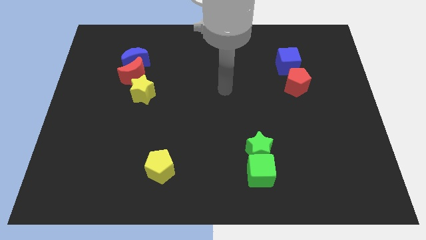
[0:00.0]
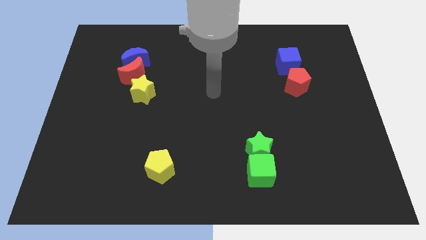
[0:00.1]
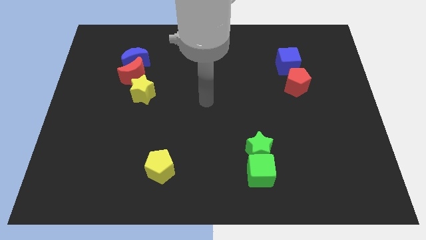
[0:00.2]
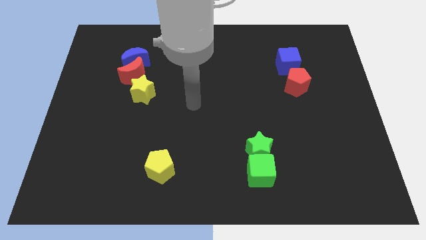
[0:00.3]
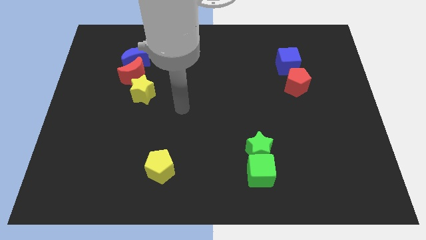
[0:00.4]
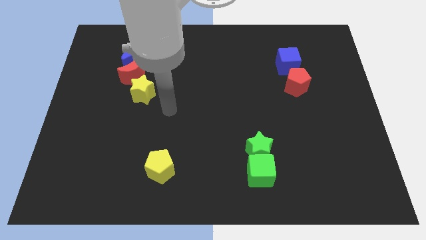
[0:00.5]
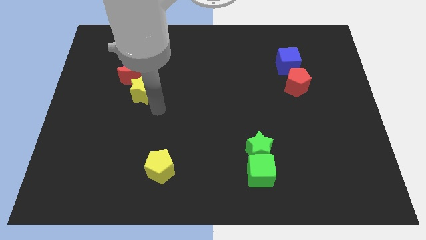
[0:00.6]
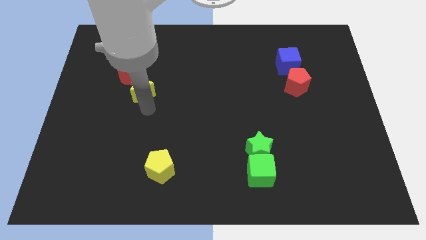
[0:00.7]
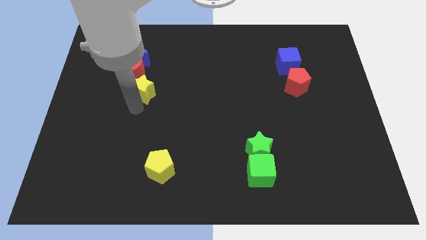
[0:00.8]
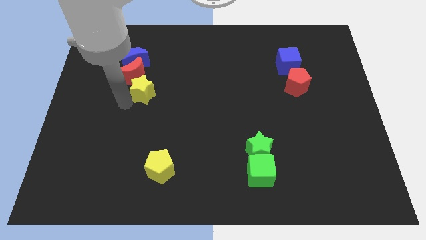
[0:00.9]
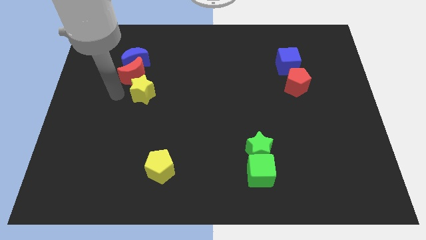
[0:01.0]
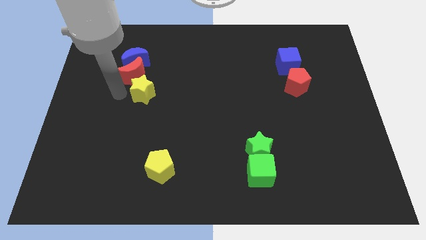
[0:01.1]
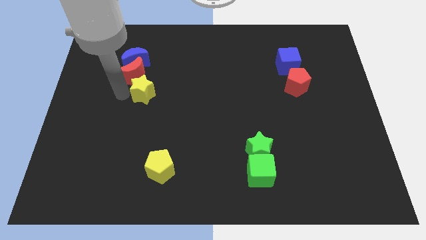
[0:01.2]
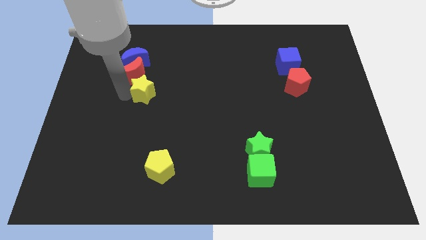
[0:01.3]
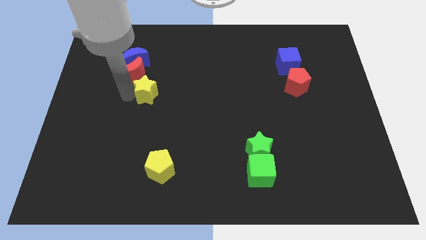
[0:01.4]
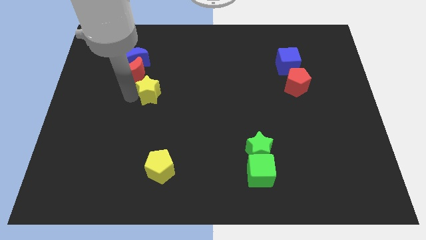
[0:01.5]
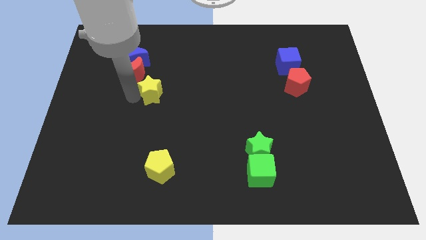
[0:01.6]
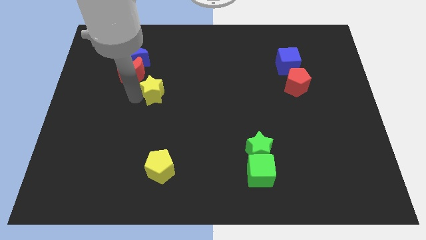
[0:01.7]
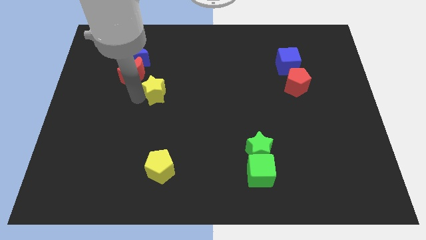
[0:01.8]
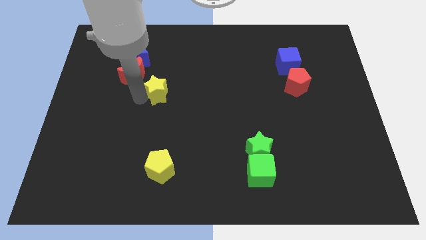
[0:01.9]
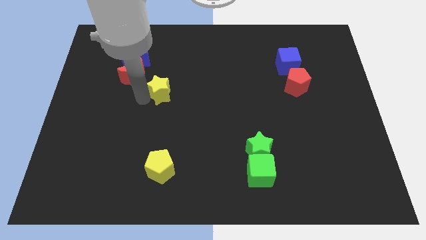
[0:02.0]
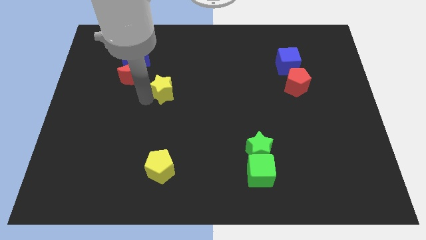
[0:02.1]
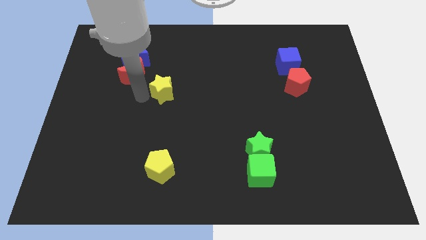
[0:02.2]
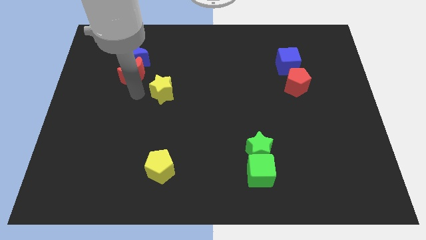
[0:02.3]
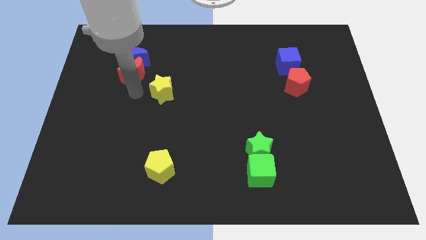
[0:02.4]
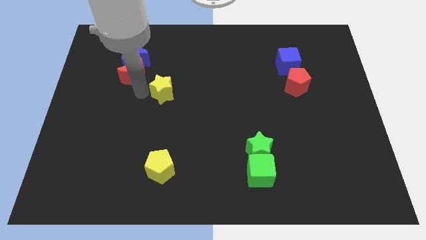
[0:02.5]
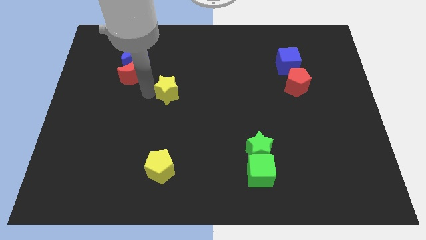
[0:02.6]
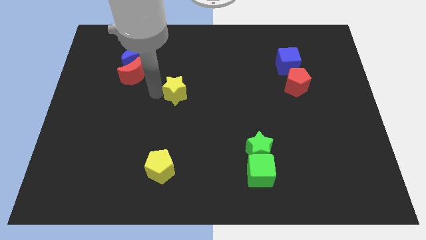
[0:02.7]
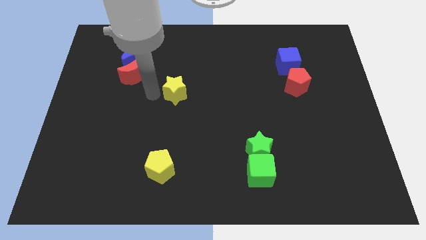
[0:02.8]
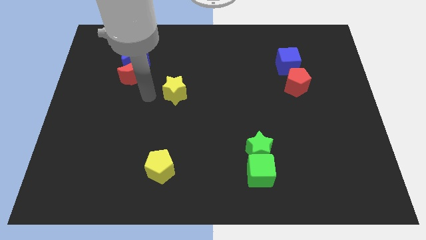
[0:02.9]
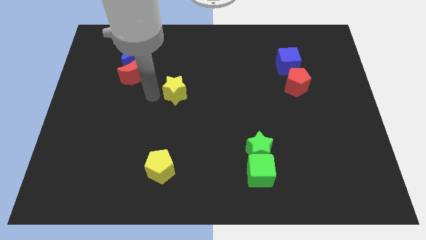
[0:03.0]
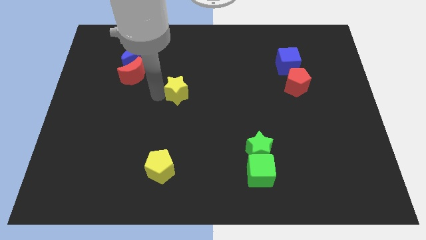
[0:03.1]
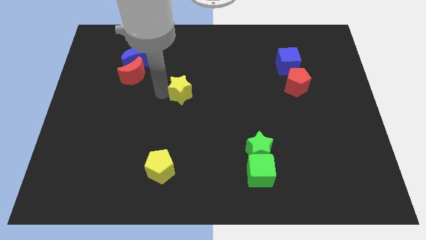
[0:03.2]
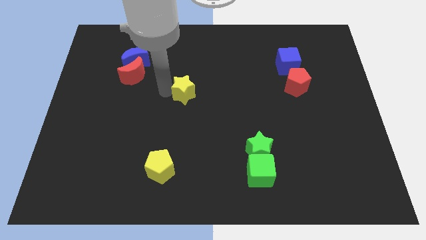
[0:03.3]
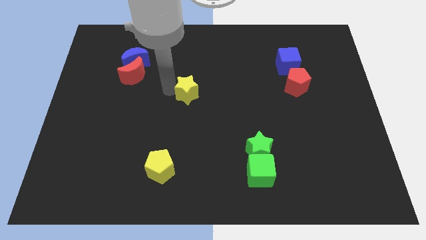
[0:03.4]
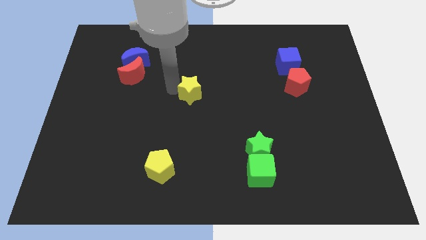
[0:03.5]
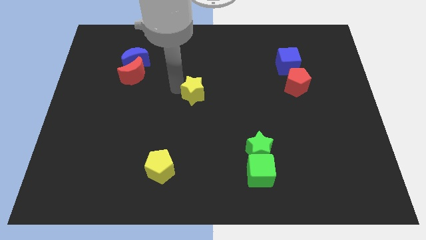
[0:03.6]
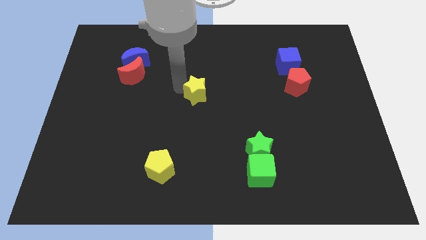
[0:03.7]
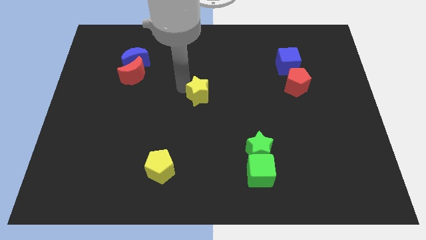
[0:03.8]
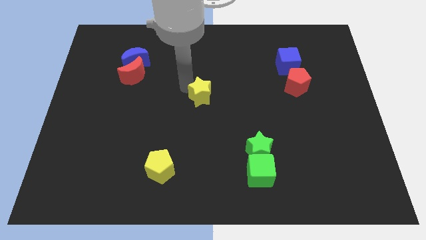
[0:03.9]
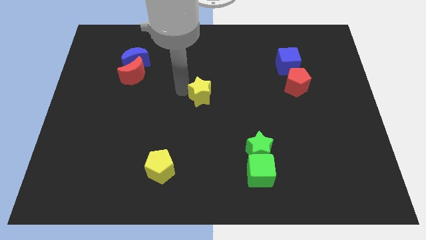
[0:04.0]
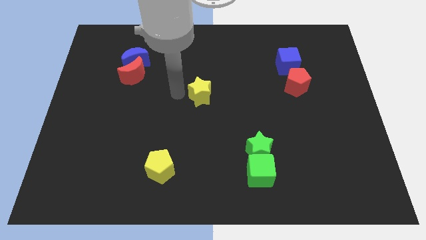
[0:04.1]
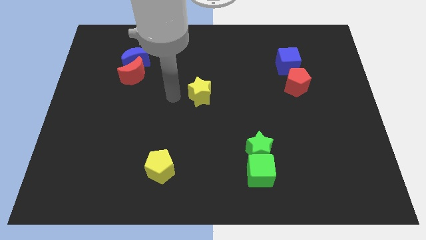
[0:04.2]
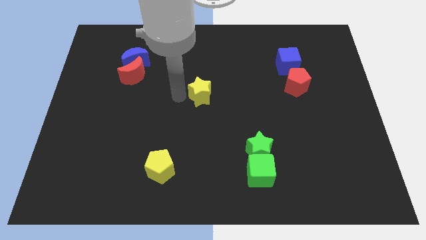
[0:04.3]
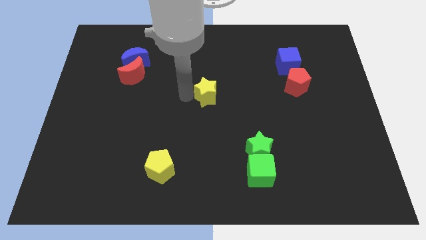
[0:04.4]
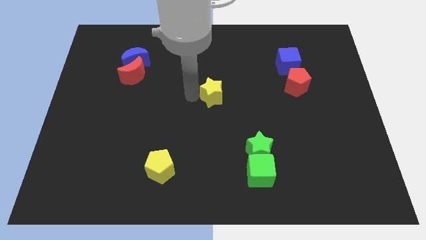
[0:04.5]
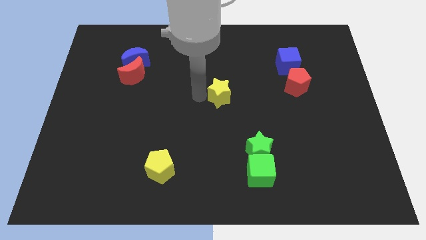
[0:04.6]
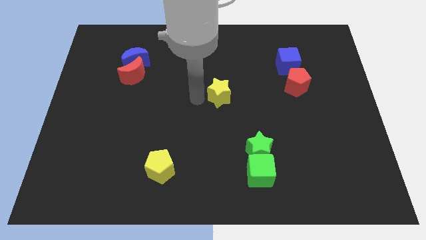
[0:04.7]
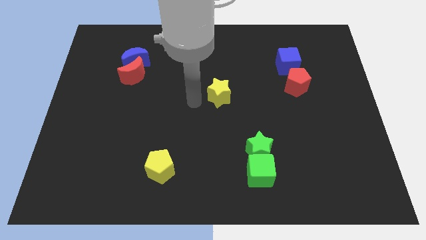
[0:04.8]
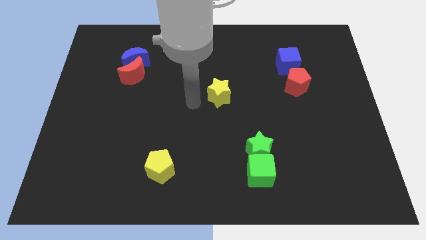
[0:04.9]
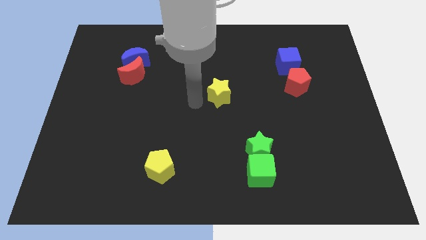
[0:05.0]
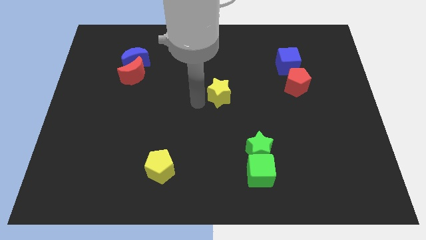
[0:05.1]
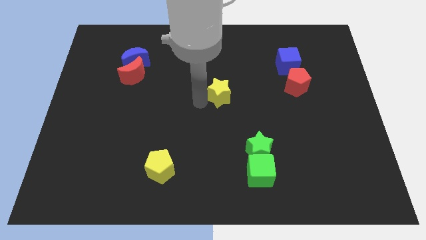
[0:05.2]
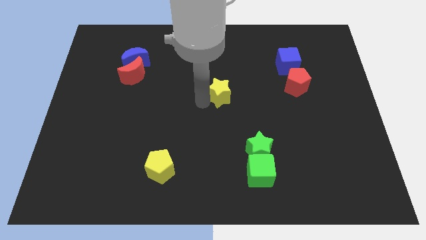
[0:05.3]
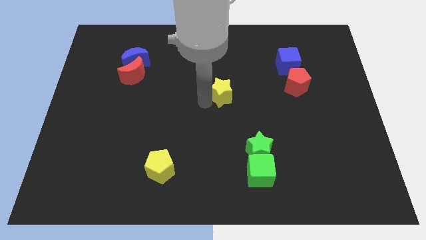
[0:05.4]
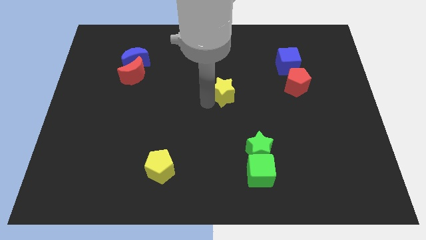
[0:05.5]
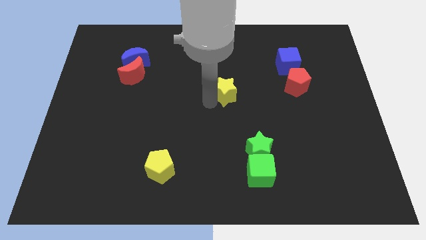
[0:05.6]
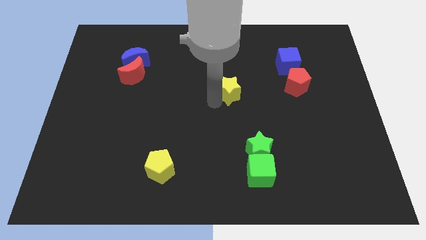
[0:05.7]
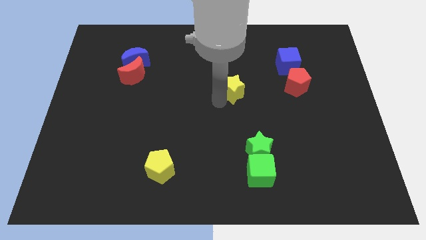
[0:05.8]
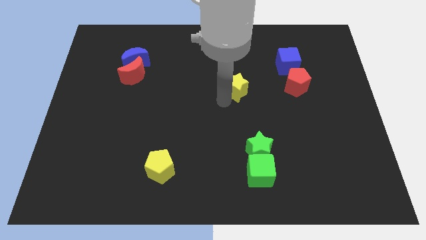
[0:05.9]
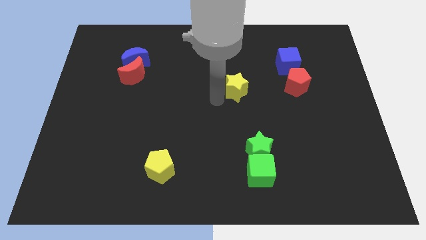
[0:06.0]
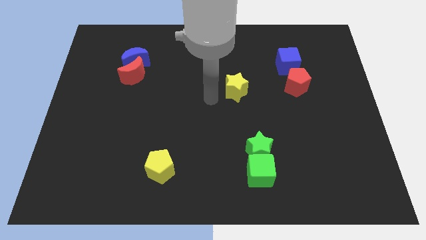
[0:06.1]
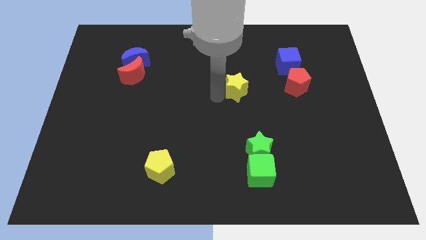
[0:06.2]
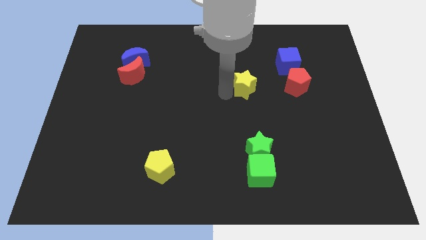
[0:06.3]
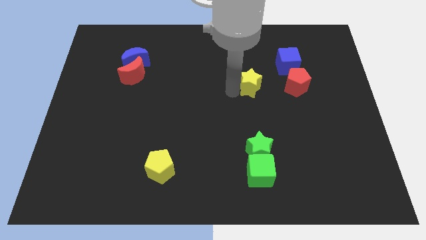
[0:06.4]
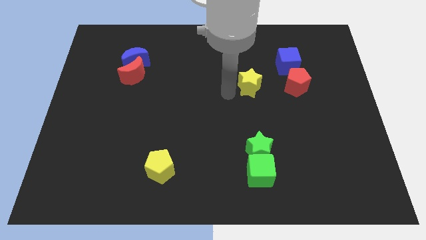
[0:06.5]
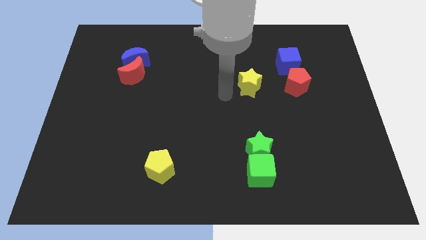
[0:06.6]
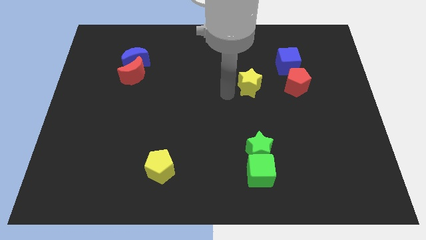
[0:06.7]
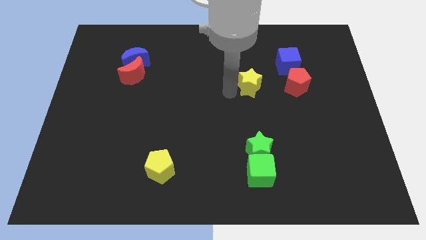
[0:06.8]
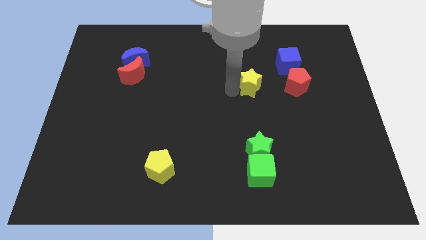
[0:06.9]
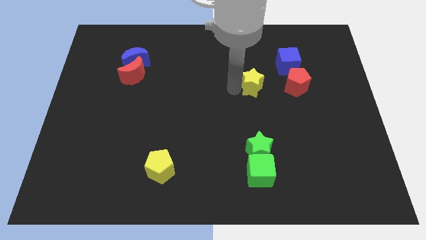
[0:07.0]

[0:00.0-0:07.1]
slide the yellow star diagonally down and to the left of the blue cube

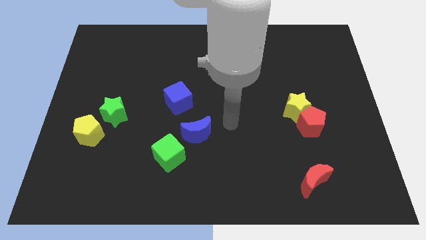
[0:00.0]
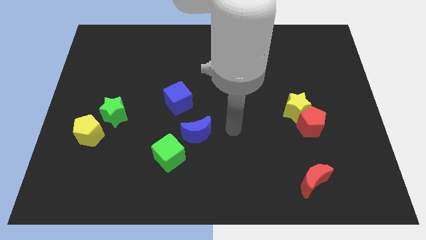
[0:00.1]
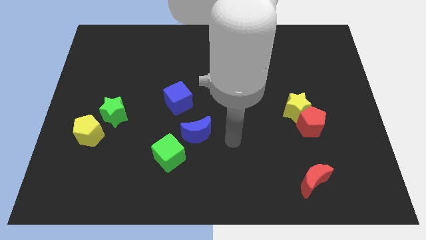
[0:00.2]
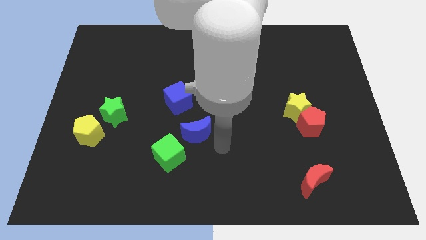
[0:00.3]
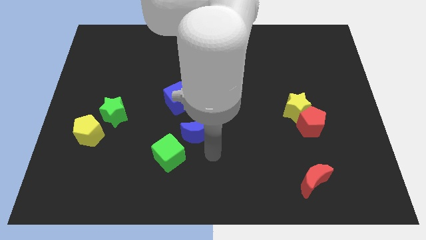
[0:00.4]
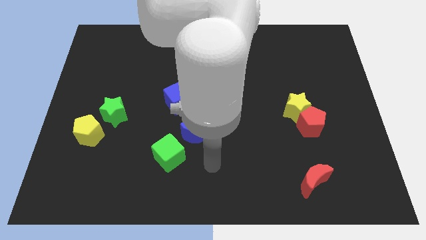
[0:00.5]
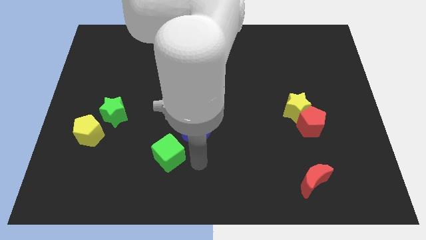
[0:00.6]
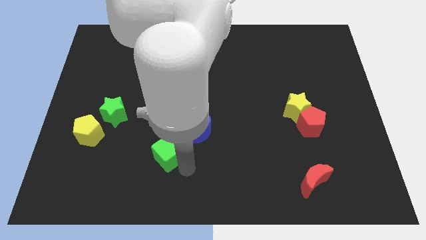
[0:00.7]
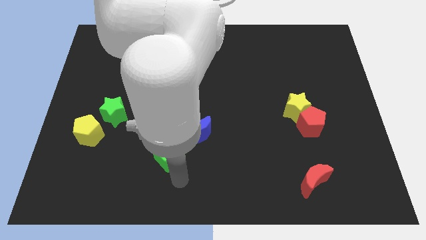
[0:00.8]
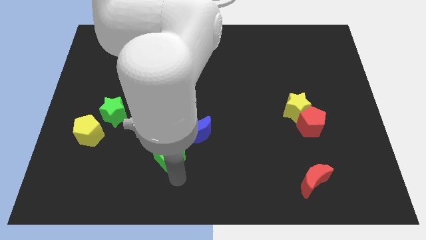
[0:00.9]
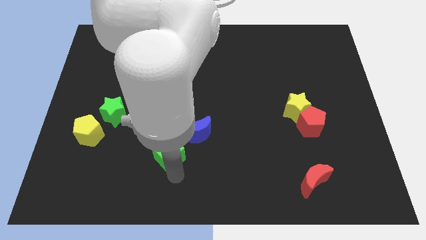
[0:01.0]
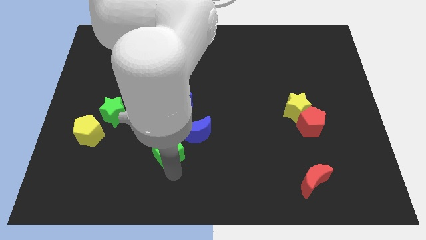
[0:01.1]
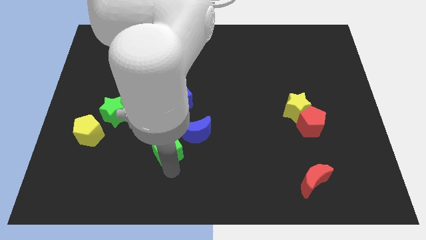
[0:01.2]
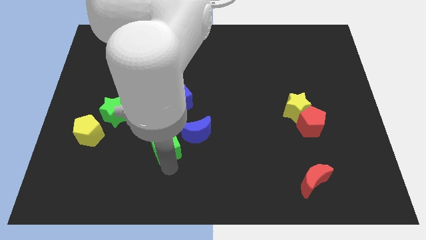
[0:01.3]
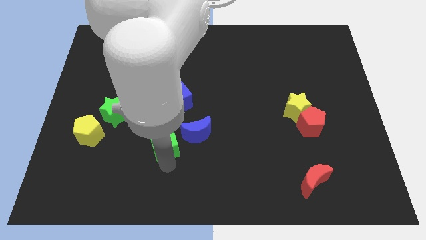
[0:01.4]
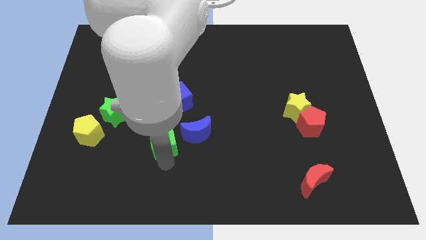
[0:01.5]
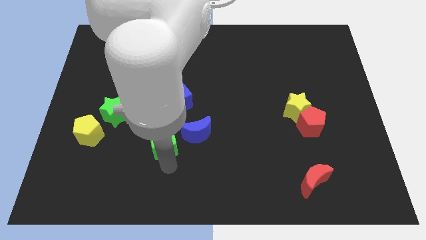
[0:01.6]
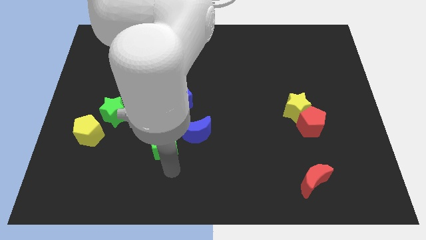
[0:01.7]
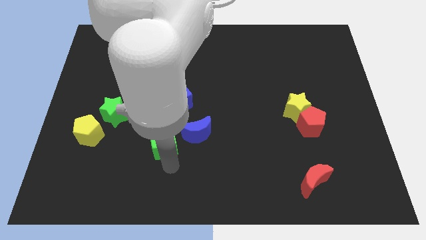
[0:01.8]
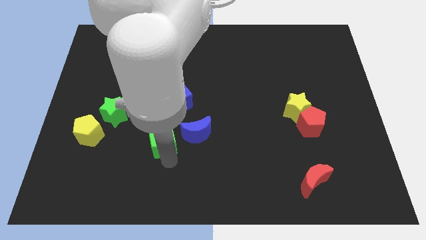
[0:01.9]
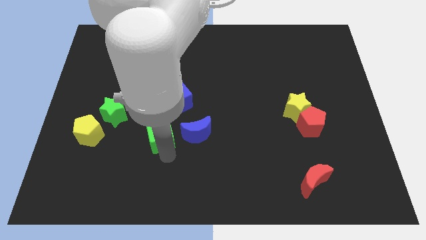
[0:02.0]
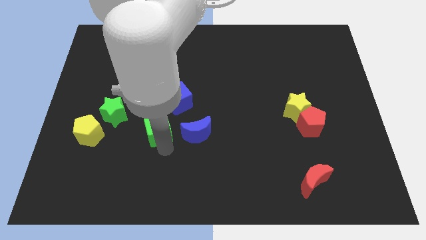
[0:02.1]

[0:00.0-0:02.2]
move the green cube to the bottom left of the blue cube
